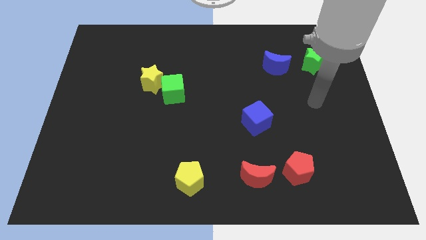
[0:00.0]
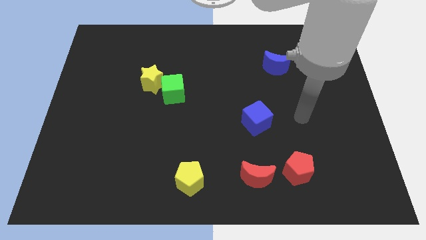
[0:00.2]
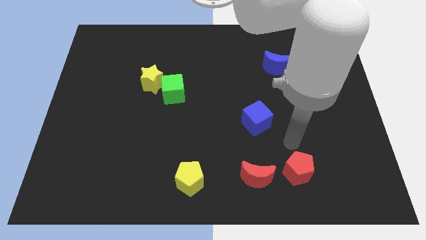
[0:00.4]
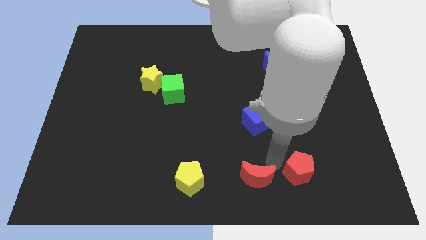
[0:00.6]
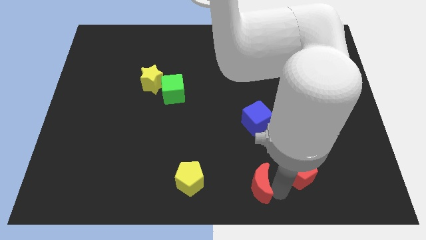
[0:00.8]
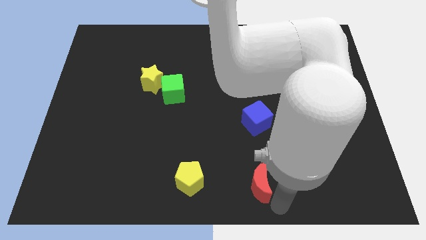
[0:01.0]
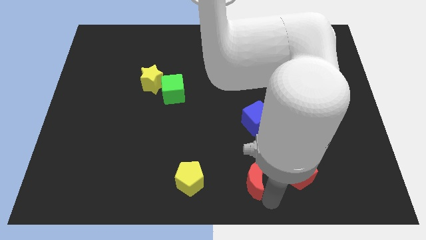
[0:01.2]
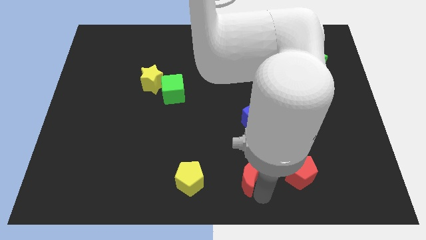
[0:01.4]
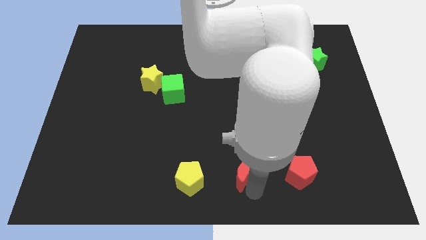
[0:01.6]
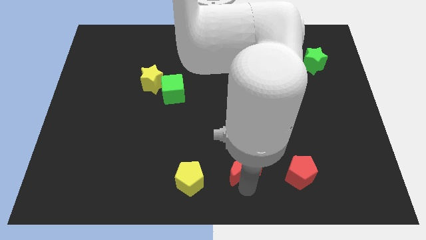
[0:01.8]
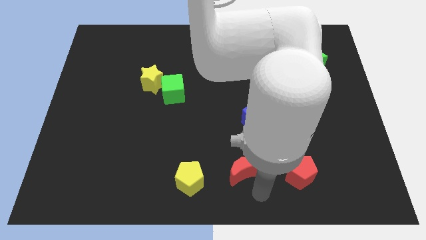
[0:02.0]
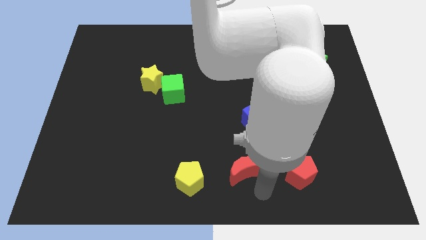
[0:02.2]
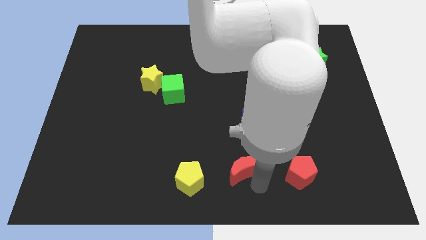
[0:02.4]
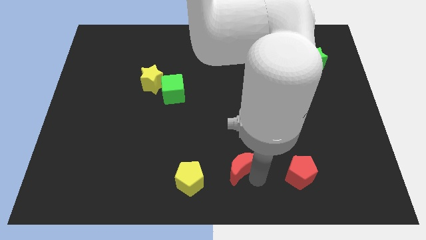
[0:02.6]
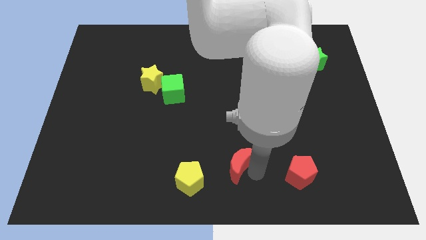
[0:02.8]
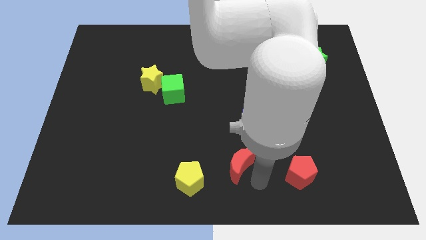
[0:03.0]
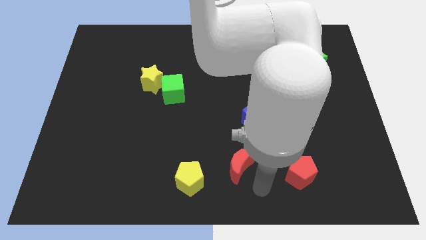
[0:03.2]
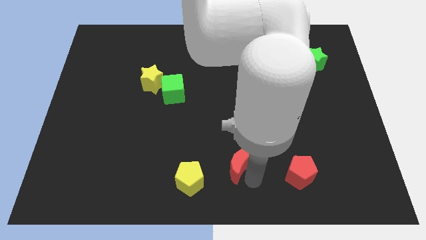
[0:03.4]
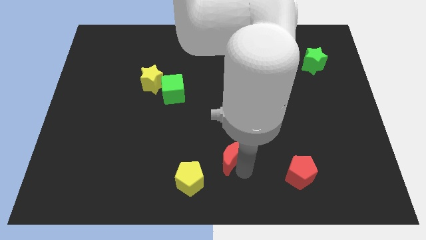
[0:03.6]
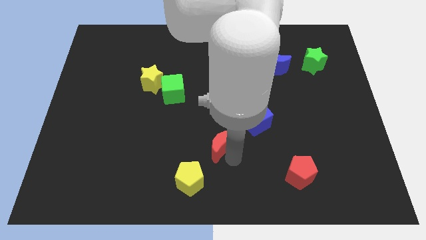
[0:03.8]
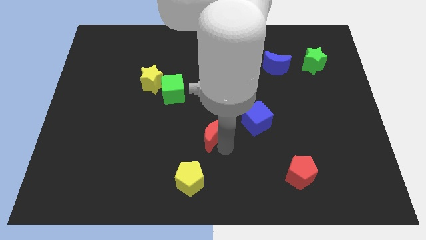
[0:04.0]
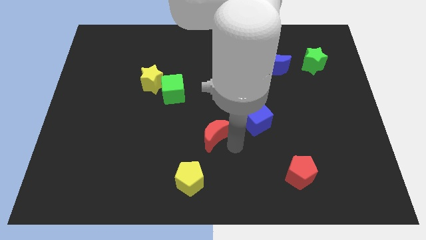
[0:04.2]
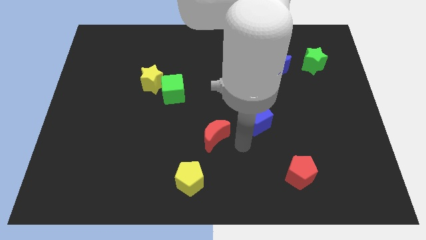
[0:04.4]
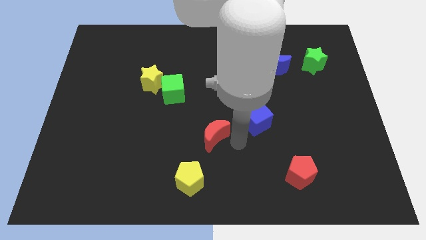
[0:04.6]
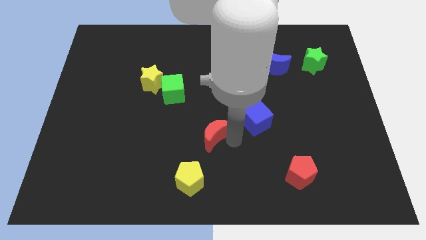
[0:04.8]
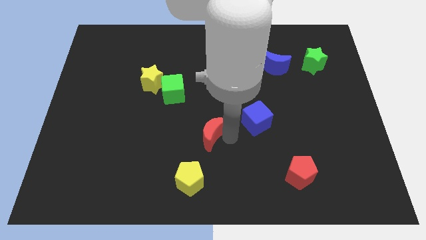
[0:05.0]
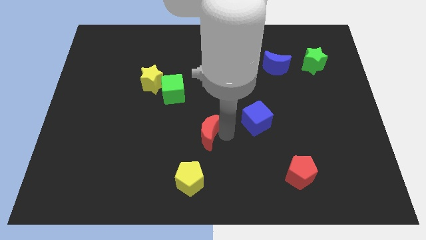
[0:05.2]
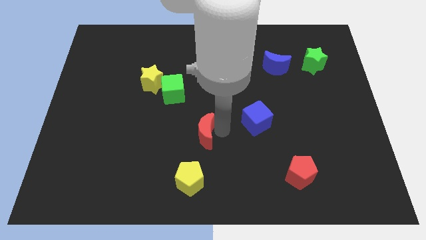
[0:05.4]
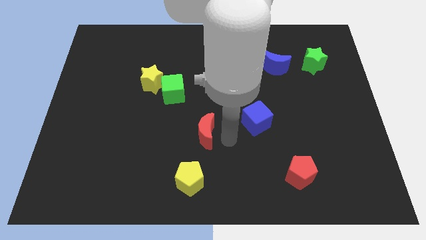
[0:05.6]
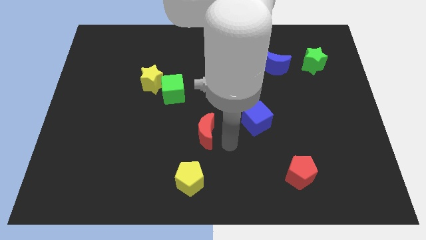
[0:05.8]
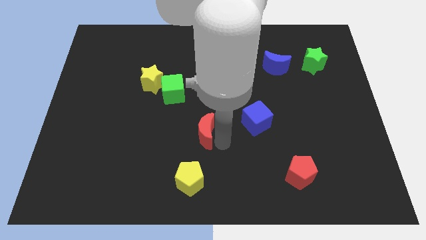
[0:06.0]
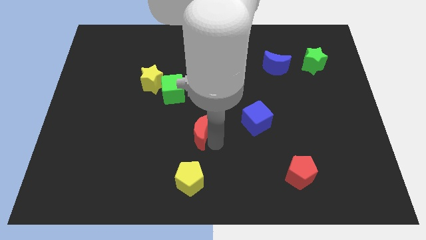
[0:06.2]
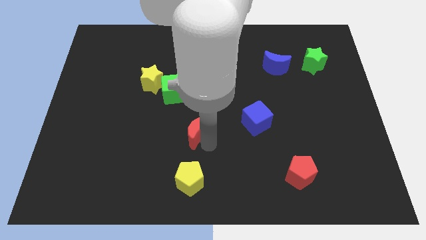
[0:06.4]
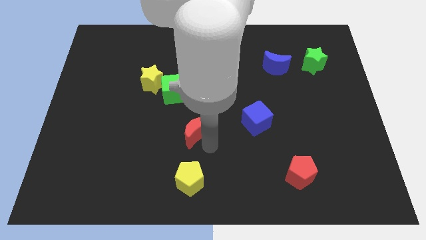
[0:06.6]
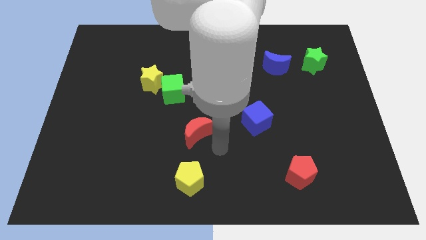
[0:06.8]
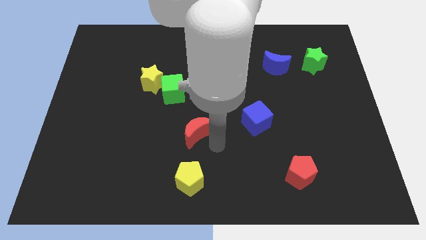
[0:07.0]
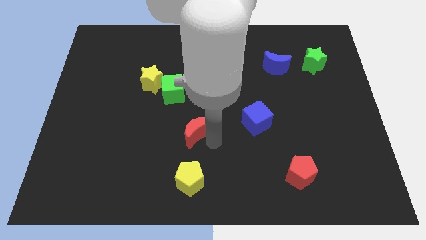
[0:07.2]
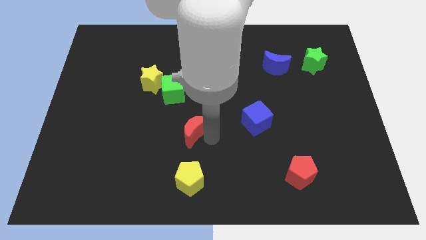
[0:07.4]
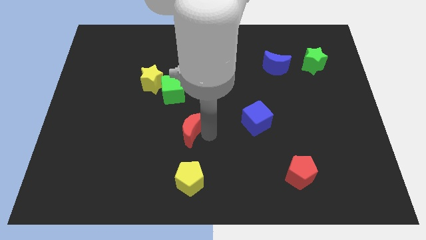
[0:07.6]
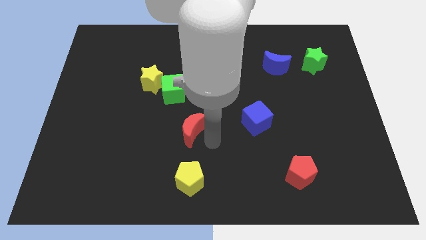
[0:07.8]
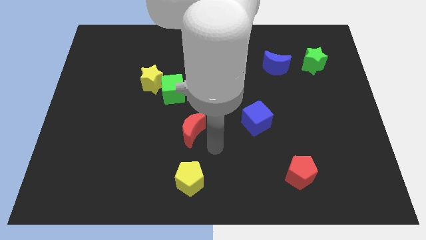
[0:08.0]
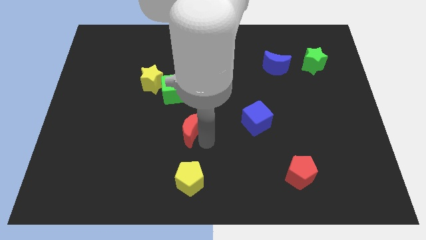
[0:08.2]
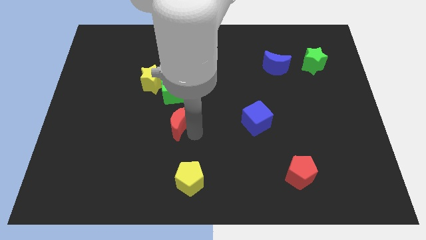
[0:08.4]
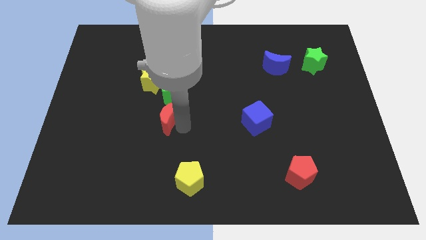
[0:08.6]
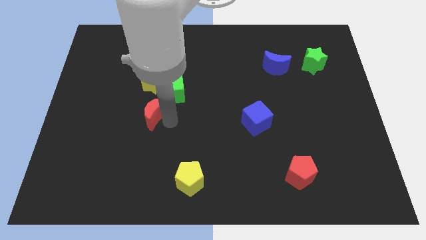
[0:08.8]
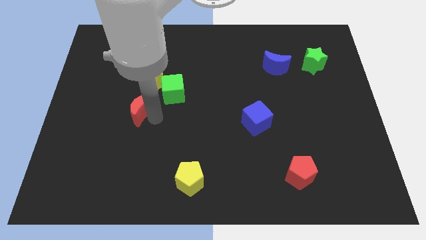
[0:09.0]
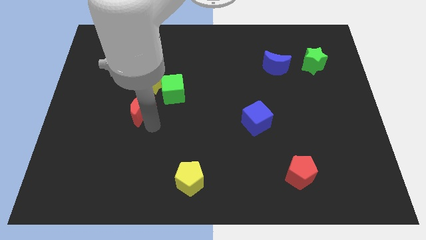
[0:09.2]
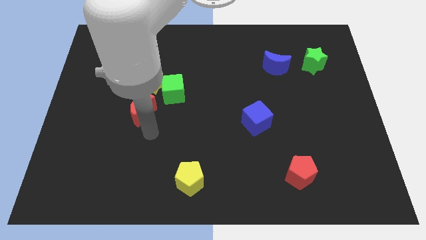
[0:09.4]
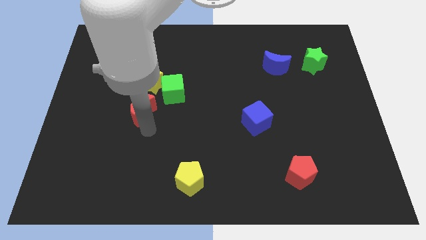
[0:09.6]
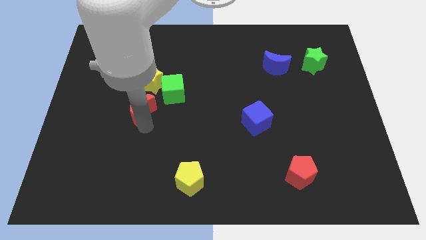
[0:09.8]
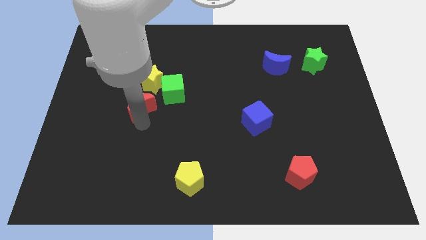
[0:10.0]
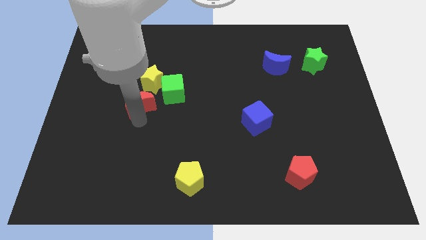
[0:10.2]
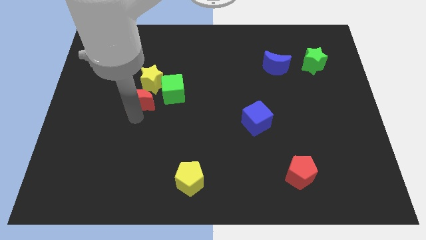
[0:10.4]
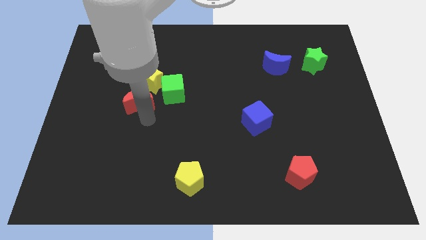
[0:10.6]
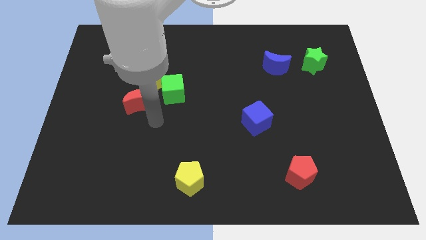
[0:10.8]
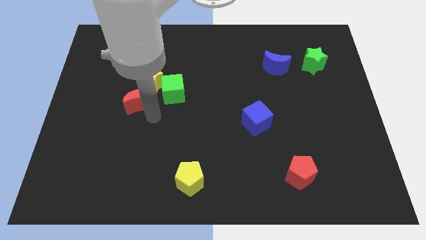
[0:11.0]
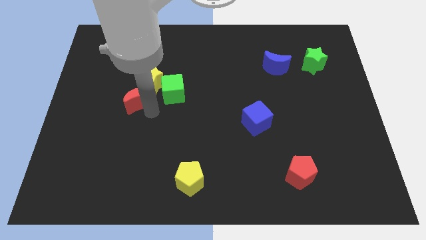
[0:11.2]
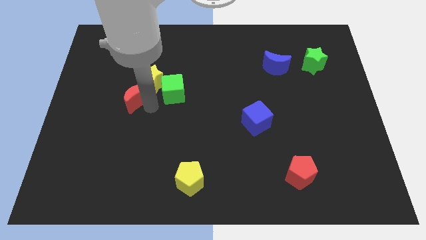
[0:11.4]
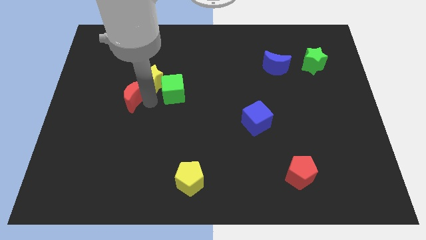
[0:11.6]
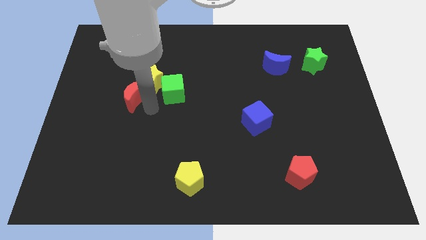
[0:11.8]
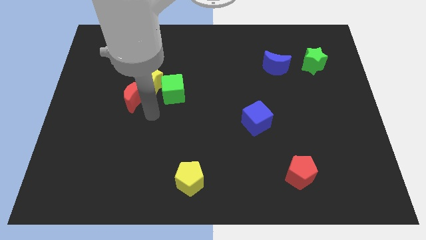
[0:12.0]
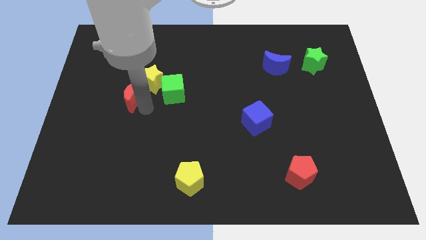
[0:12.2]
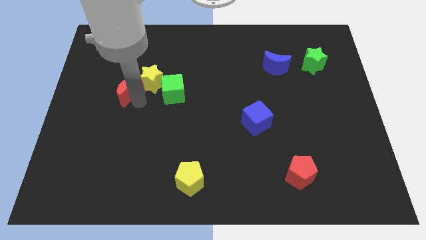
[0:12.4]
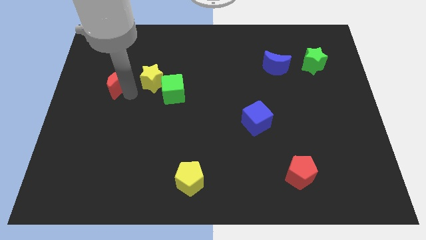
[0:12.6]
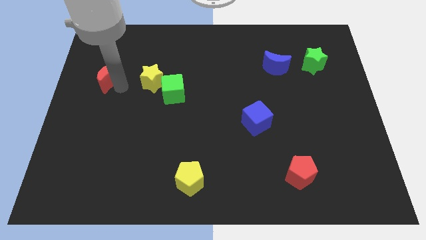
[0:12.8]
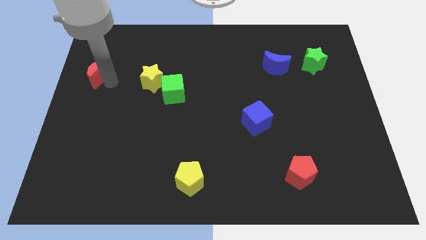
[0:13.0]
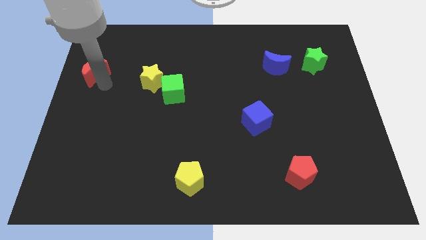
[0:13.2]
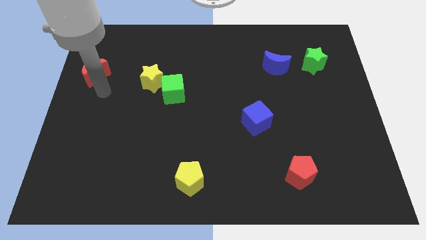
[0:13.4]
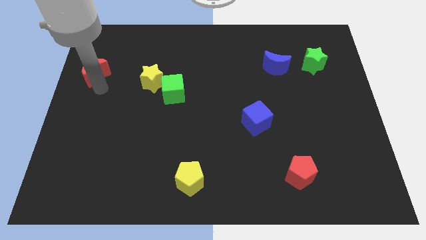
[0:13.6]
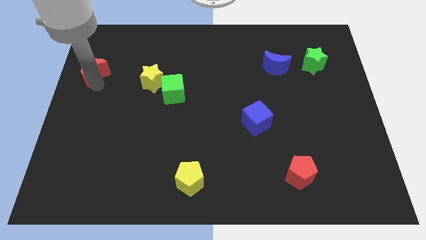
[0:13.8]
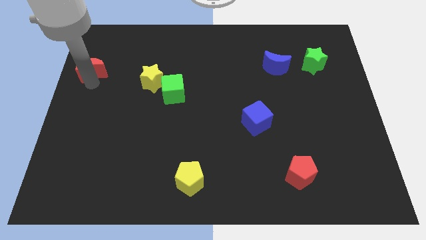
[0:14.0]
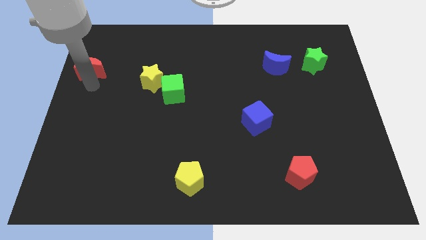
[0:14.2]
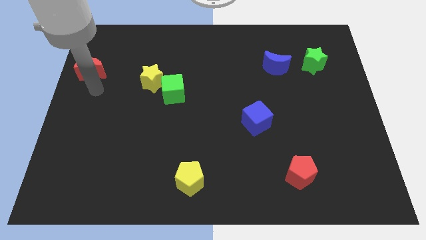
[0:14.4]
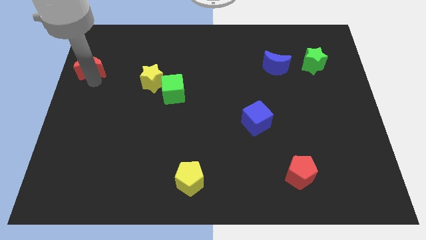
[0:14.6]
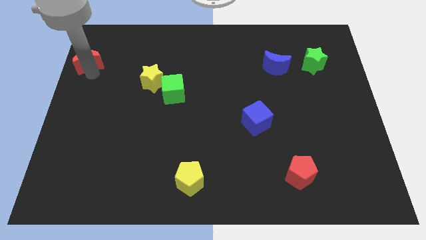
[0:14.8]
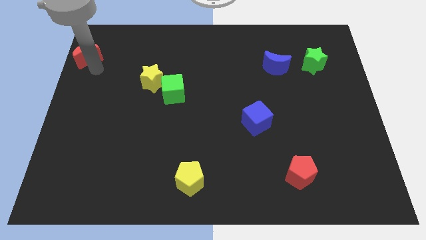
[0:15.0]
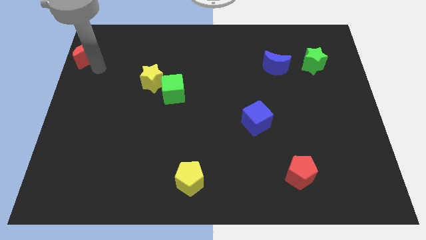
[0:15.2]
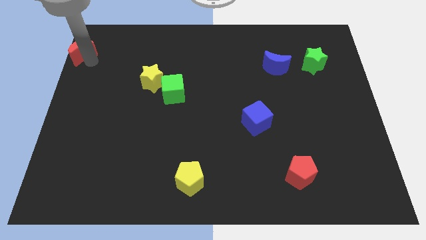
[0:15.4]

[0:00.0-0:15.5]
move the red moon to the top left corner
